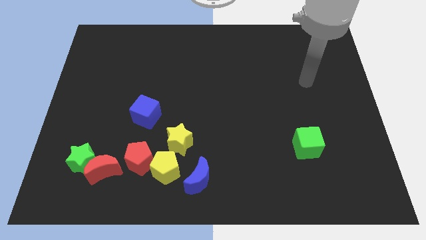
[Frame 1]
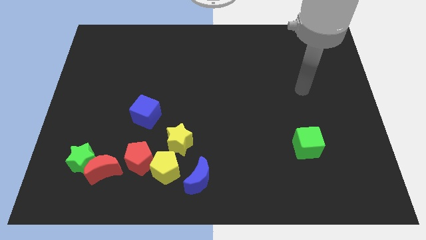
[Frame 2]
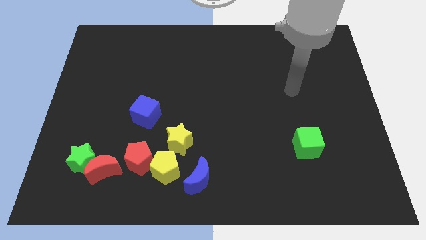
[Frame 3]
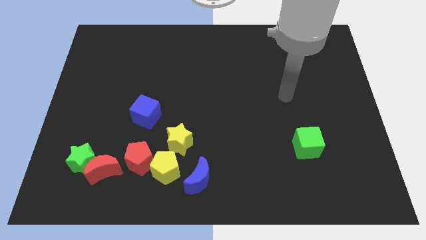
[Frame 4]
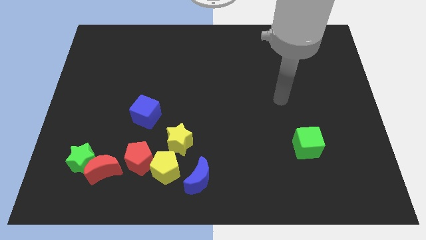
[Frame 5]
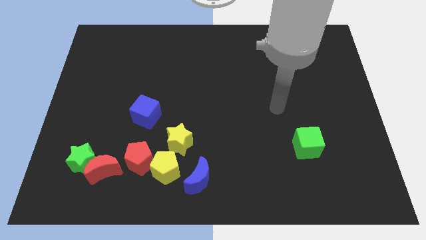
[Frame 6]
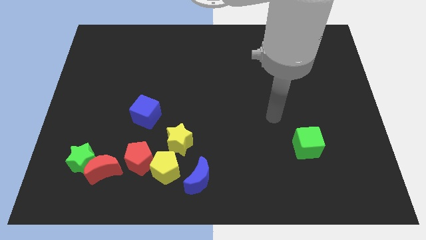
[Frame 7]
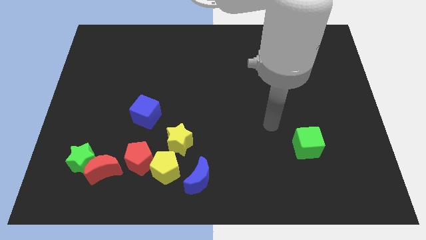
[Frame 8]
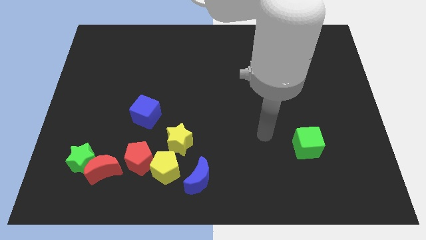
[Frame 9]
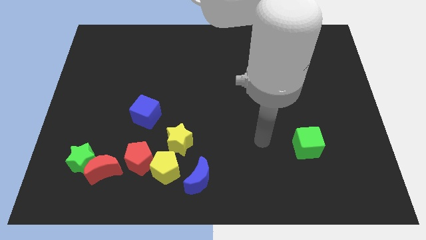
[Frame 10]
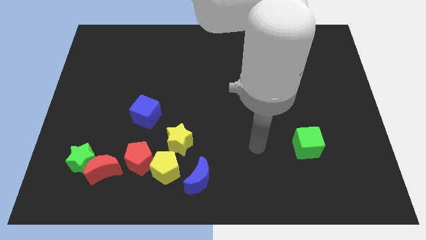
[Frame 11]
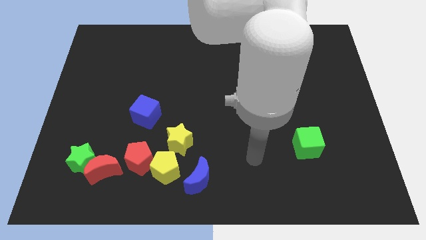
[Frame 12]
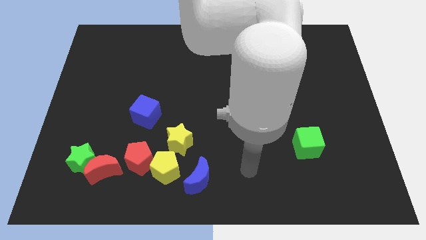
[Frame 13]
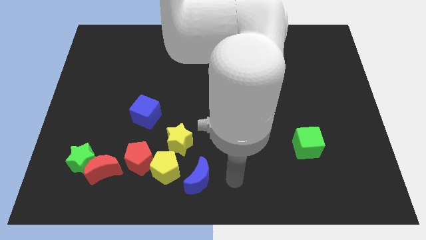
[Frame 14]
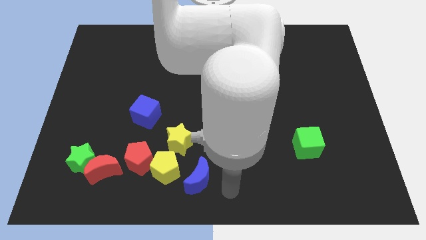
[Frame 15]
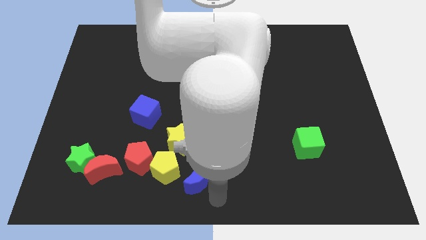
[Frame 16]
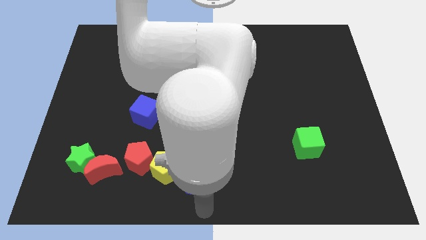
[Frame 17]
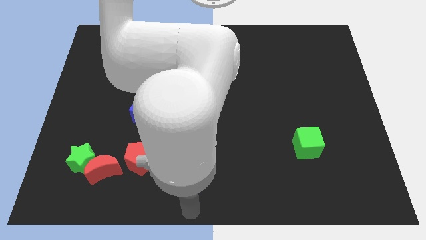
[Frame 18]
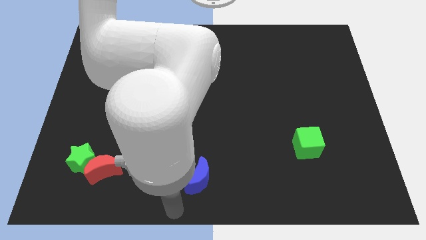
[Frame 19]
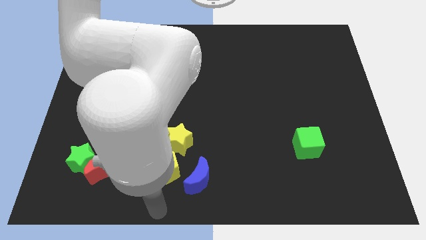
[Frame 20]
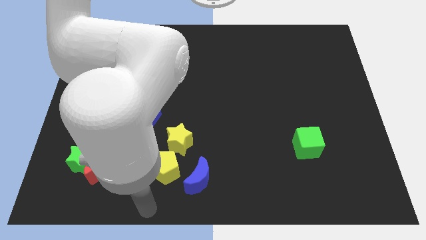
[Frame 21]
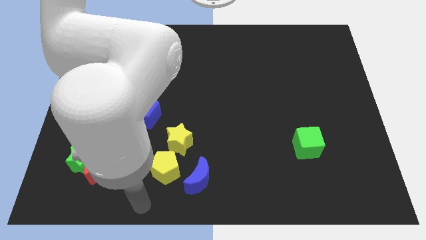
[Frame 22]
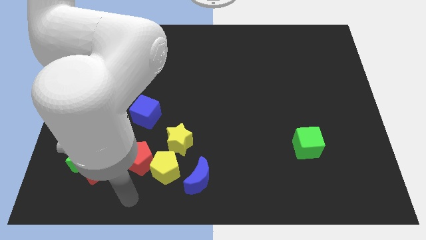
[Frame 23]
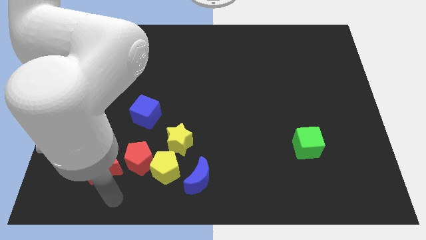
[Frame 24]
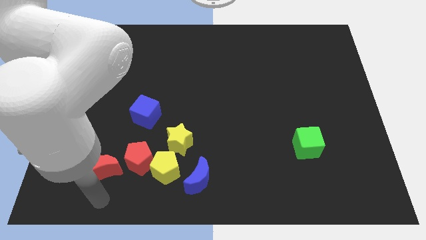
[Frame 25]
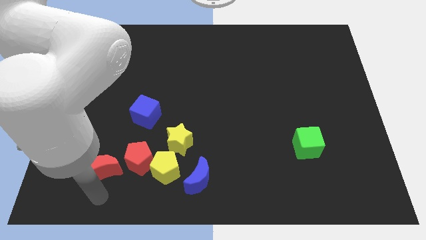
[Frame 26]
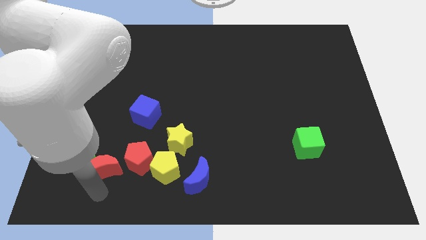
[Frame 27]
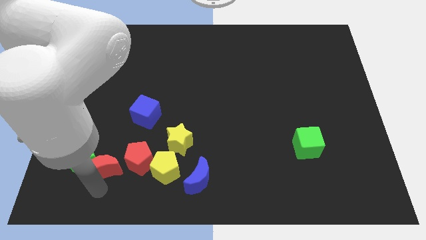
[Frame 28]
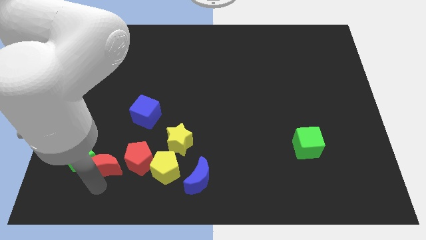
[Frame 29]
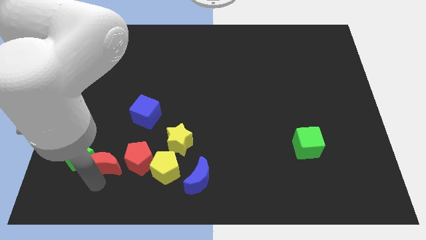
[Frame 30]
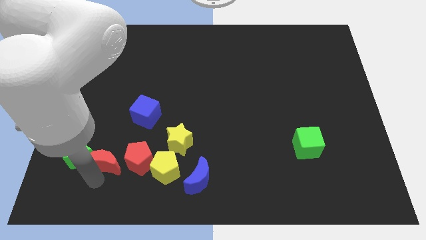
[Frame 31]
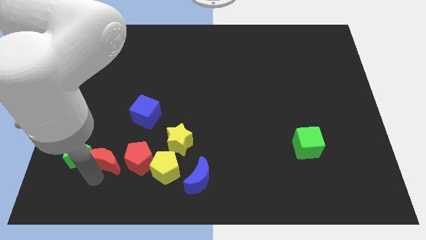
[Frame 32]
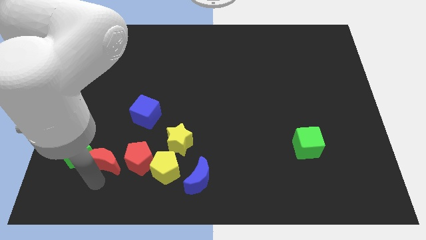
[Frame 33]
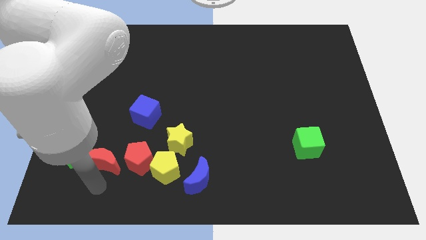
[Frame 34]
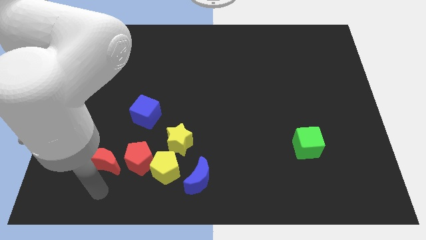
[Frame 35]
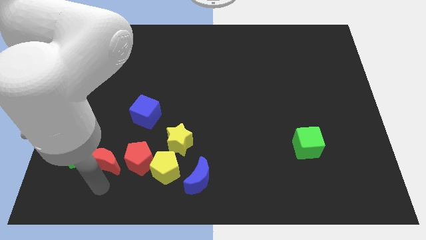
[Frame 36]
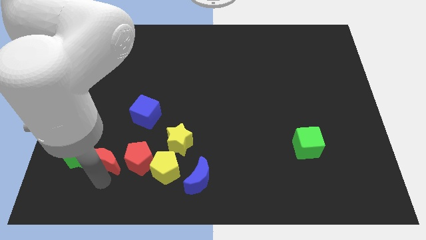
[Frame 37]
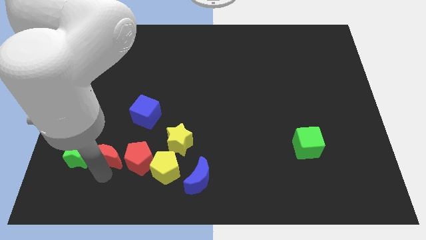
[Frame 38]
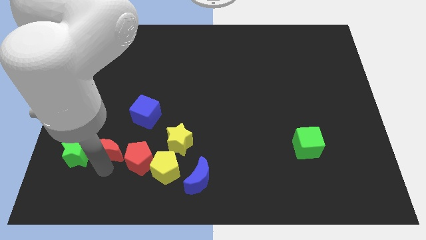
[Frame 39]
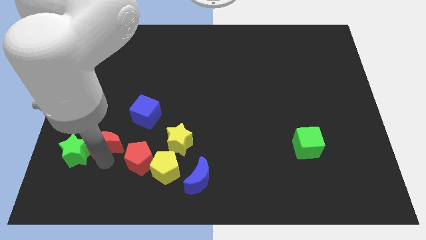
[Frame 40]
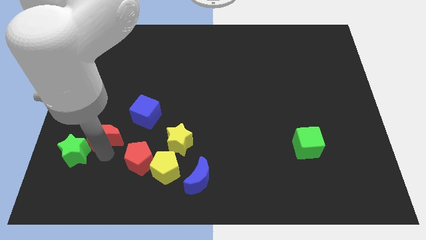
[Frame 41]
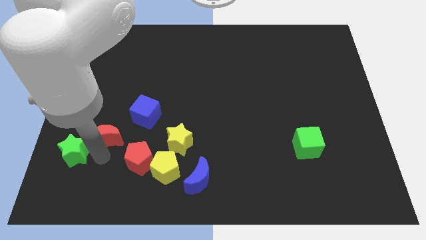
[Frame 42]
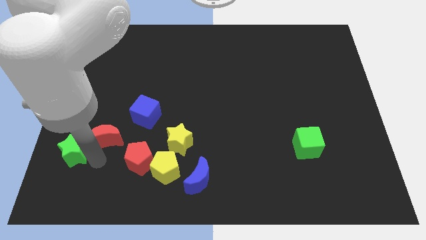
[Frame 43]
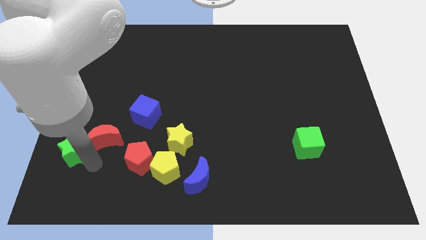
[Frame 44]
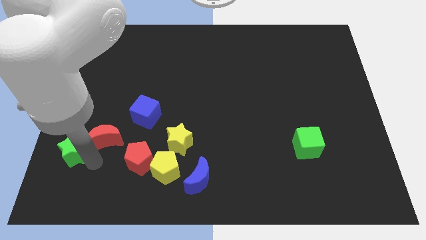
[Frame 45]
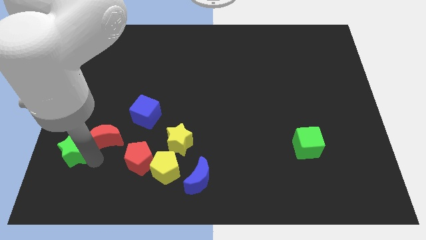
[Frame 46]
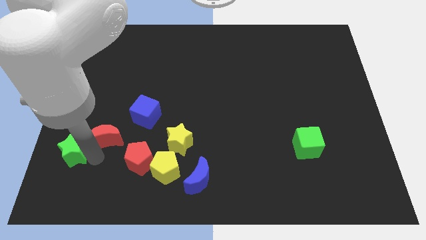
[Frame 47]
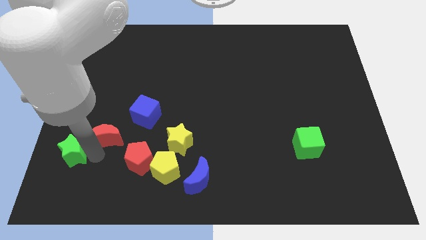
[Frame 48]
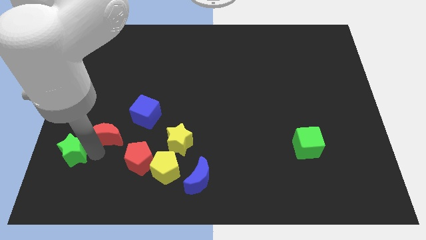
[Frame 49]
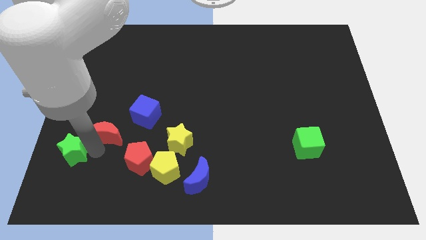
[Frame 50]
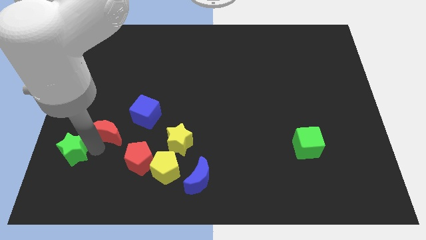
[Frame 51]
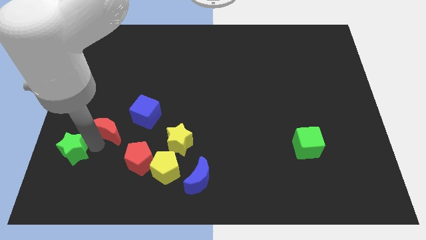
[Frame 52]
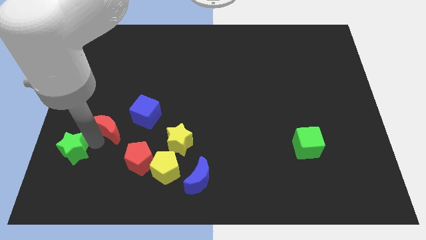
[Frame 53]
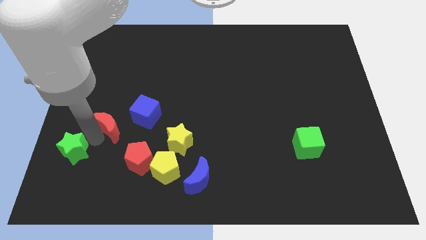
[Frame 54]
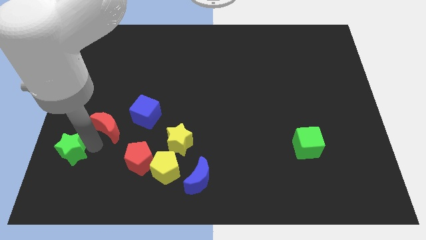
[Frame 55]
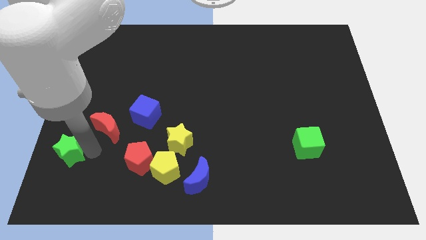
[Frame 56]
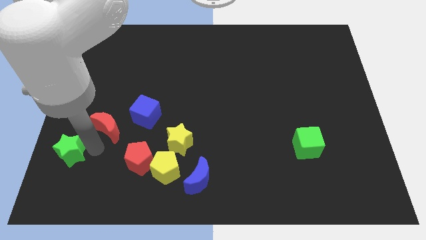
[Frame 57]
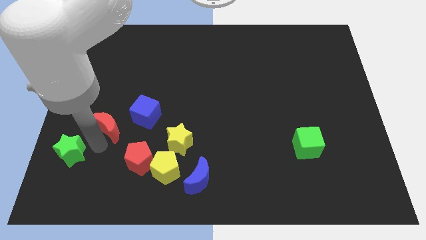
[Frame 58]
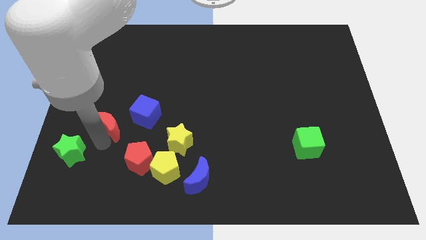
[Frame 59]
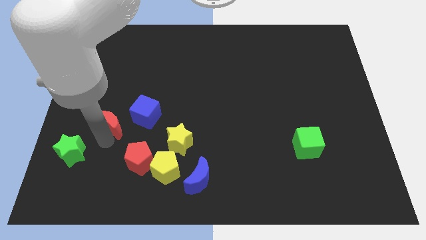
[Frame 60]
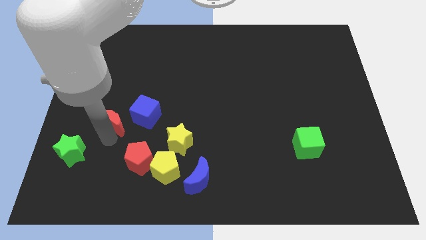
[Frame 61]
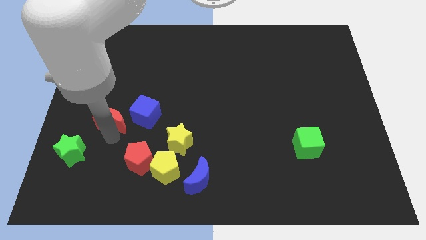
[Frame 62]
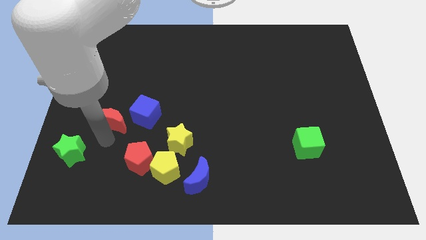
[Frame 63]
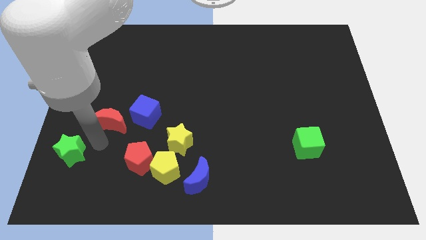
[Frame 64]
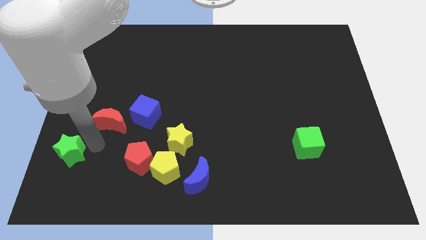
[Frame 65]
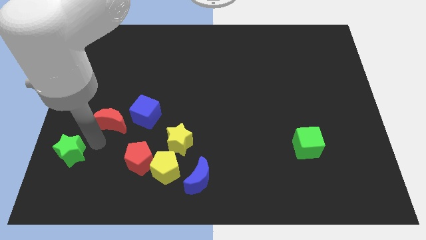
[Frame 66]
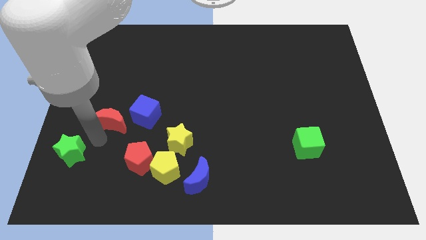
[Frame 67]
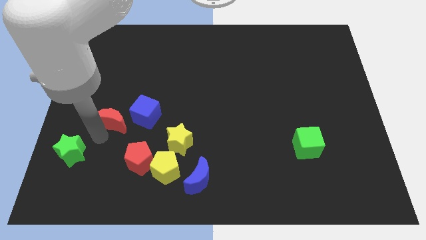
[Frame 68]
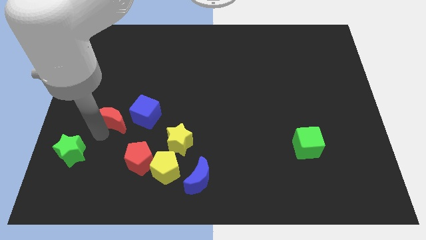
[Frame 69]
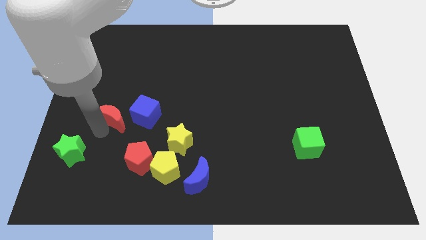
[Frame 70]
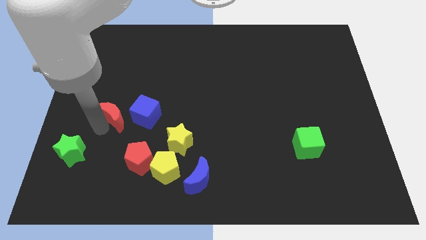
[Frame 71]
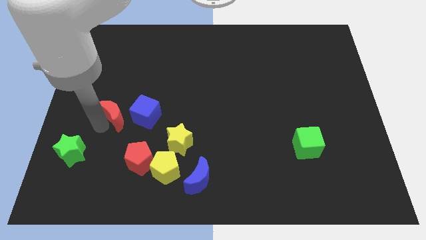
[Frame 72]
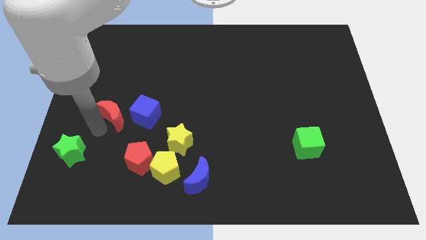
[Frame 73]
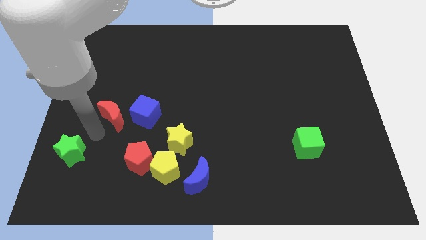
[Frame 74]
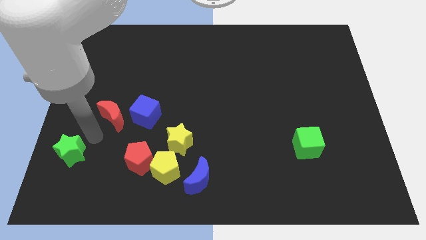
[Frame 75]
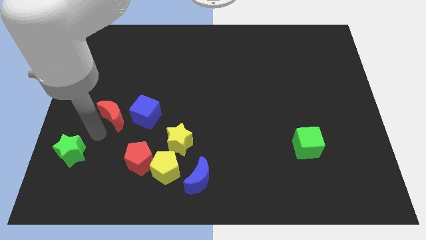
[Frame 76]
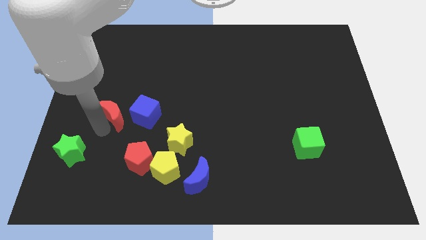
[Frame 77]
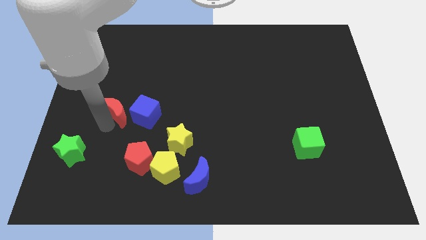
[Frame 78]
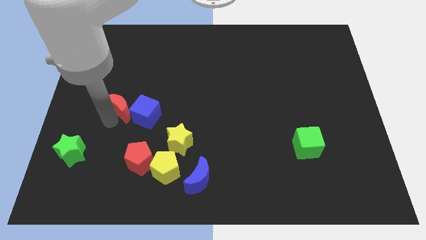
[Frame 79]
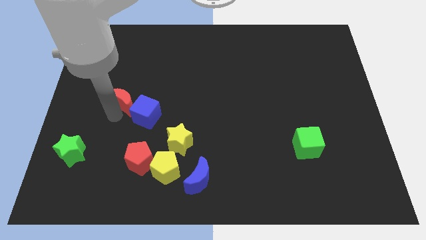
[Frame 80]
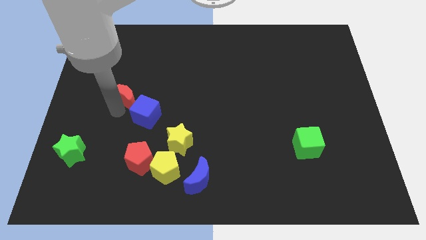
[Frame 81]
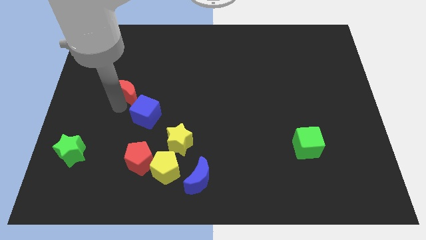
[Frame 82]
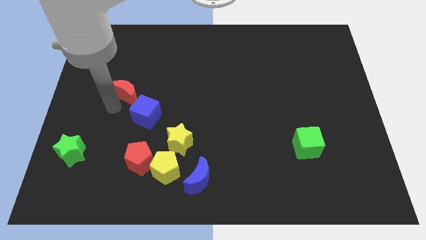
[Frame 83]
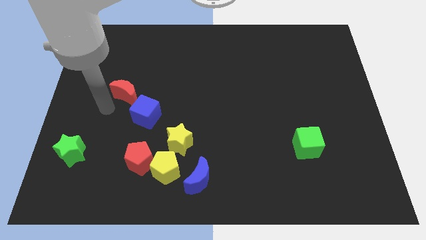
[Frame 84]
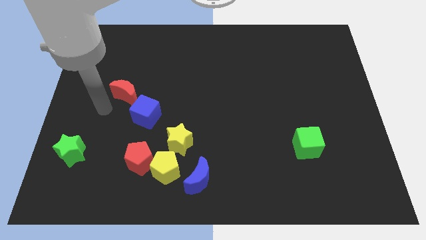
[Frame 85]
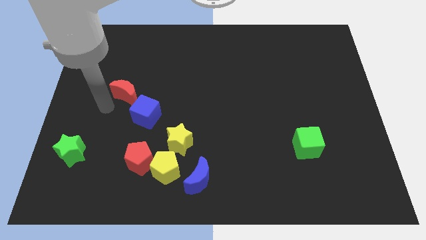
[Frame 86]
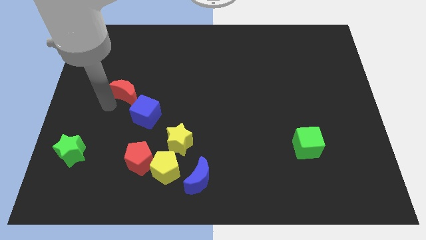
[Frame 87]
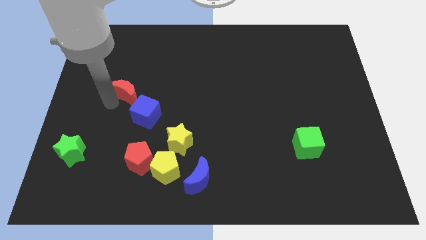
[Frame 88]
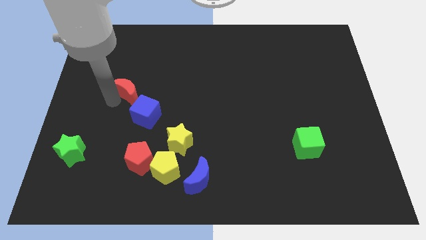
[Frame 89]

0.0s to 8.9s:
move the red moon above the blue cube
